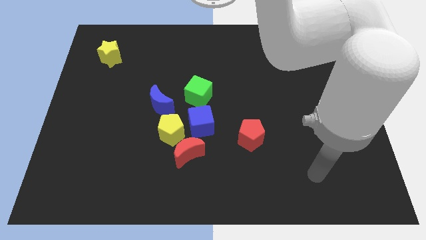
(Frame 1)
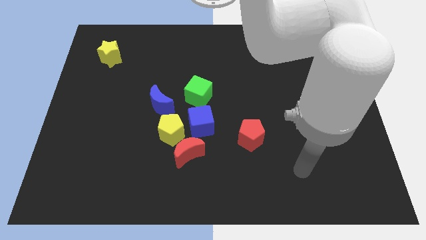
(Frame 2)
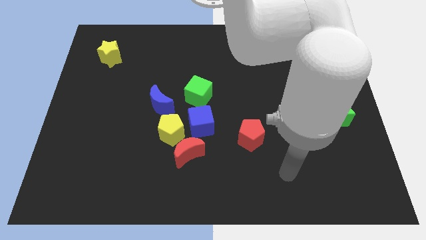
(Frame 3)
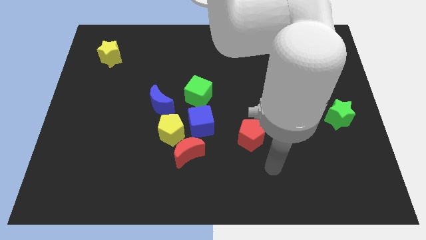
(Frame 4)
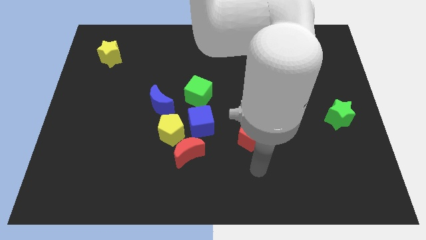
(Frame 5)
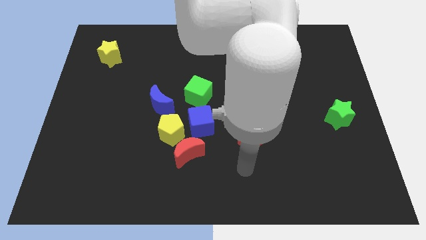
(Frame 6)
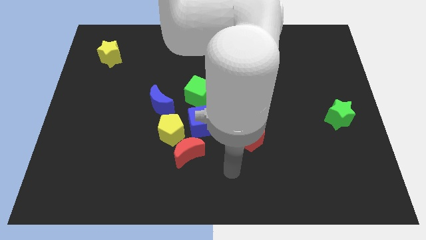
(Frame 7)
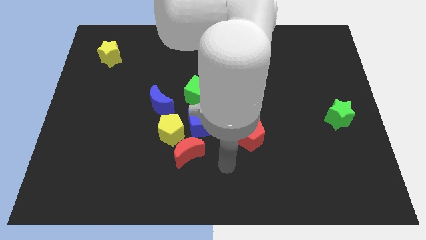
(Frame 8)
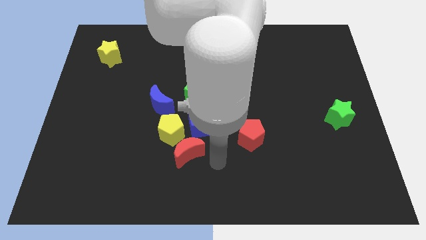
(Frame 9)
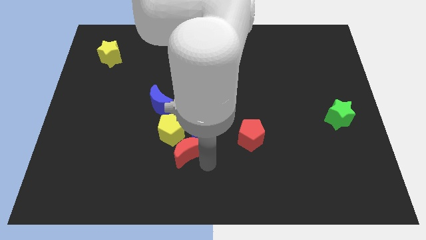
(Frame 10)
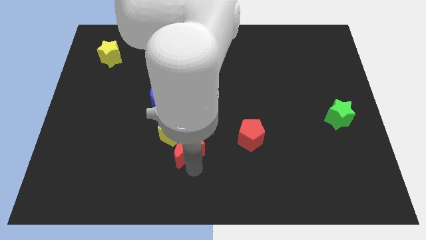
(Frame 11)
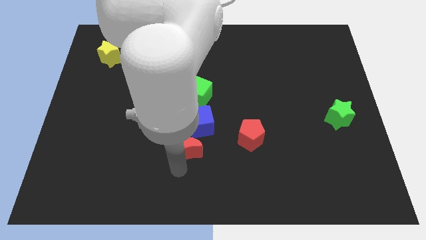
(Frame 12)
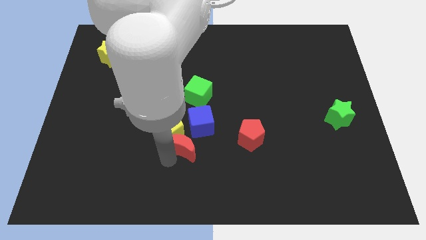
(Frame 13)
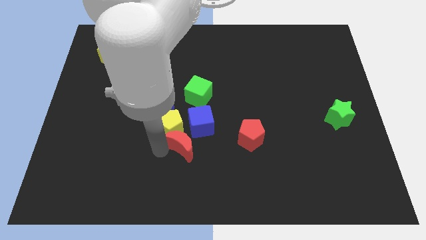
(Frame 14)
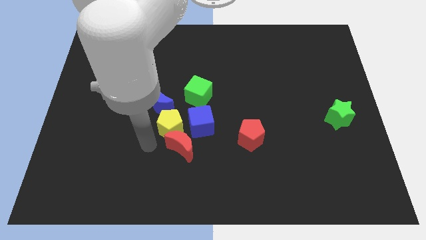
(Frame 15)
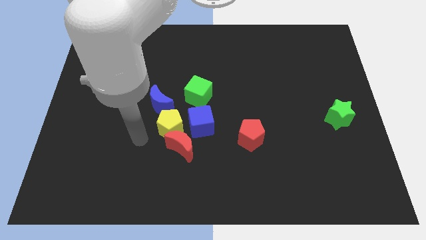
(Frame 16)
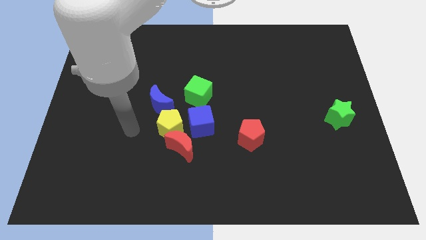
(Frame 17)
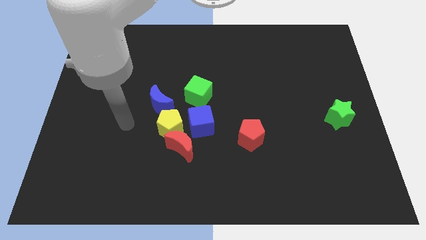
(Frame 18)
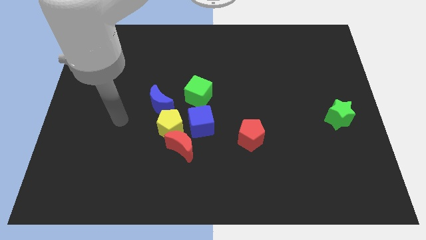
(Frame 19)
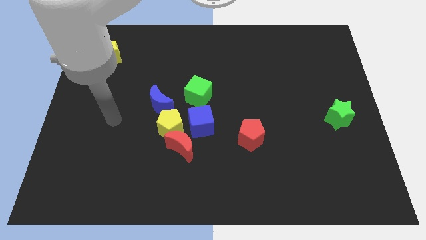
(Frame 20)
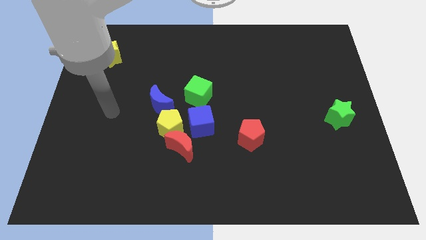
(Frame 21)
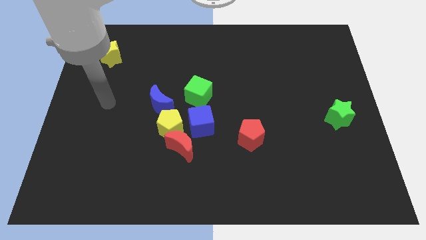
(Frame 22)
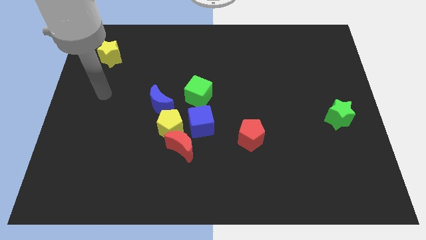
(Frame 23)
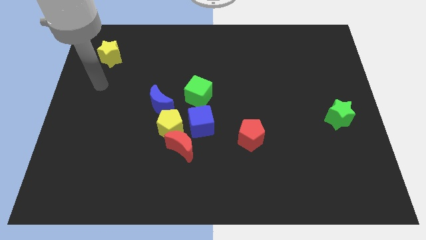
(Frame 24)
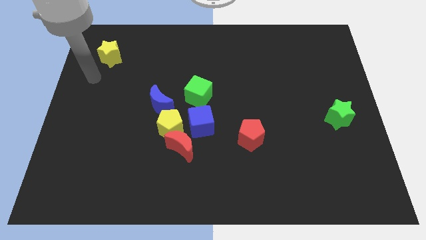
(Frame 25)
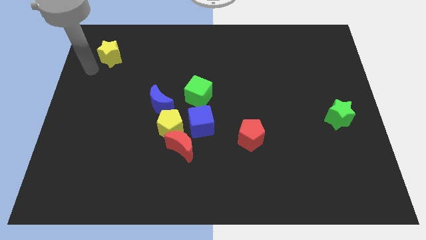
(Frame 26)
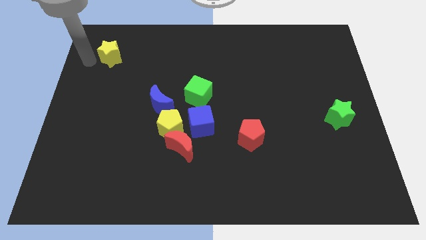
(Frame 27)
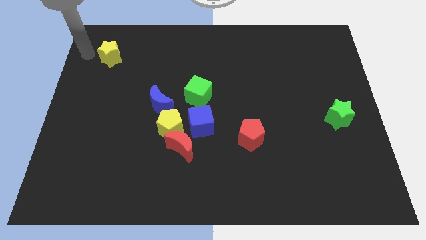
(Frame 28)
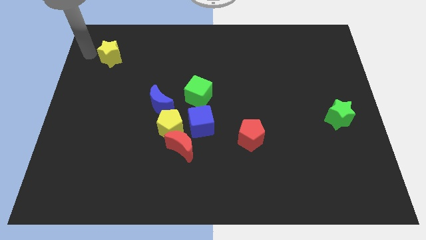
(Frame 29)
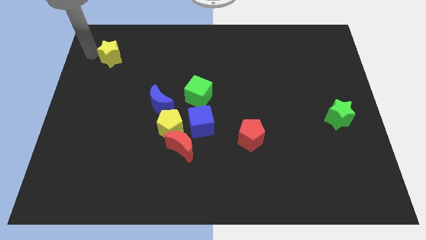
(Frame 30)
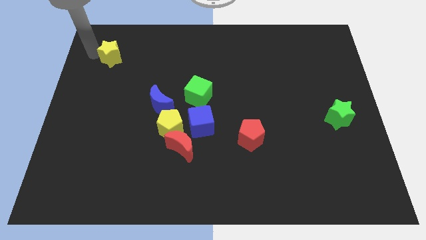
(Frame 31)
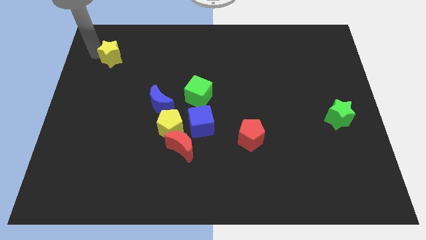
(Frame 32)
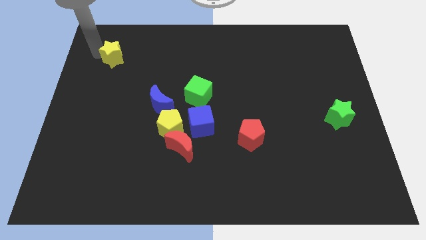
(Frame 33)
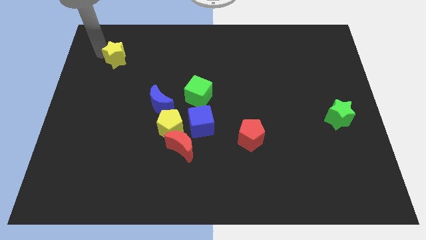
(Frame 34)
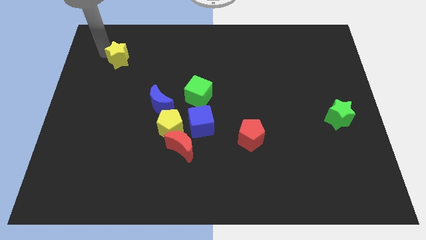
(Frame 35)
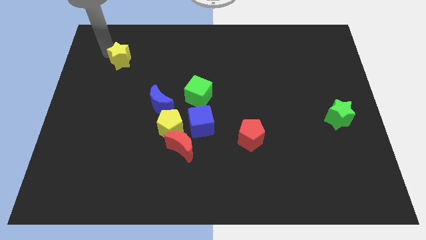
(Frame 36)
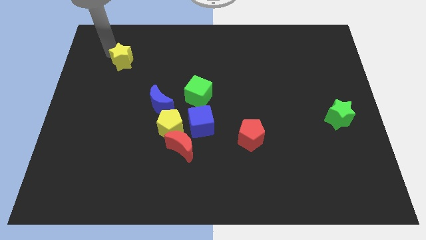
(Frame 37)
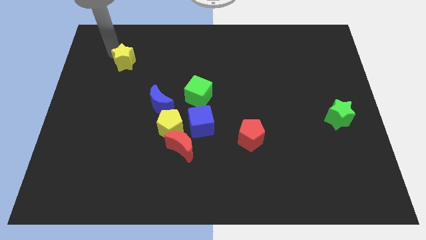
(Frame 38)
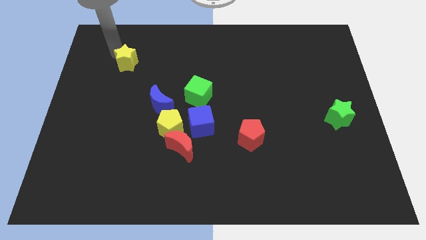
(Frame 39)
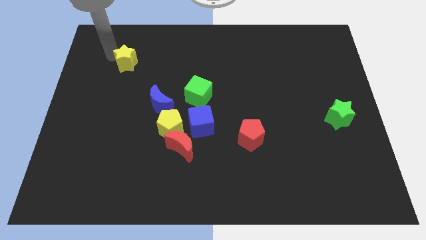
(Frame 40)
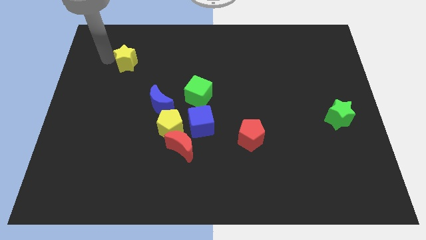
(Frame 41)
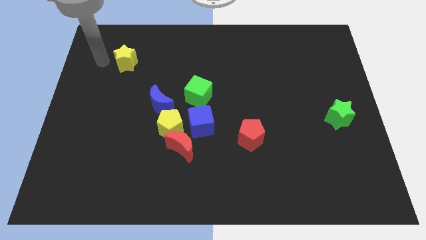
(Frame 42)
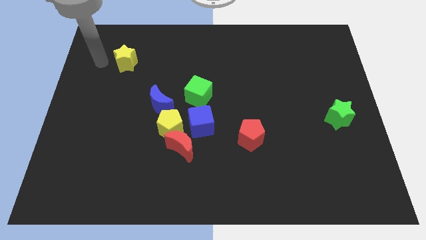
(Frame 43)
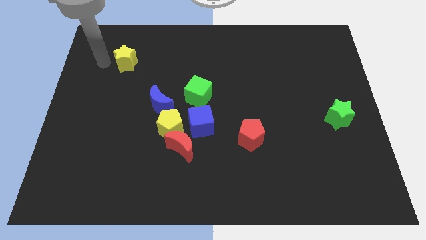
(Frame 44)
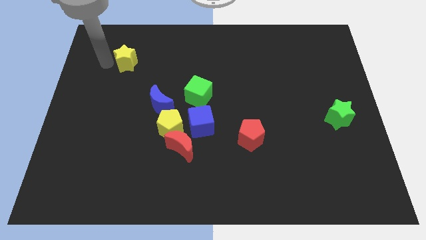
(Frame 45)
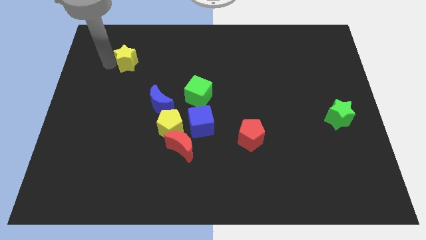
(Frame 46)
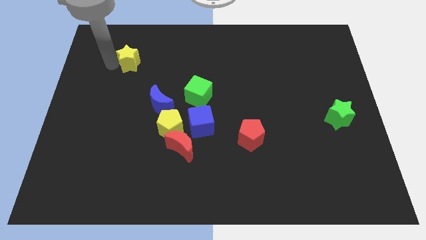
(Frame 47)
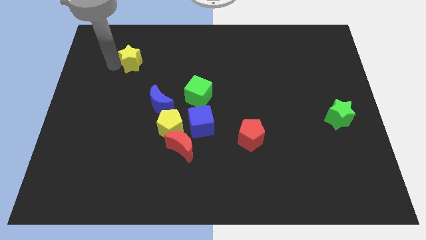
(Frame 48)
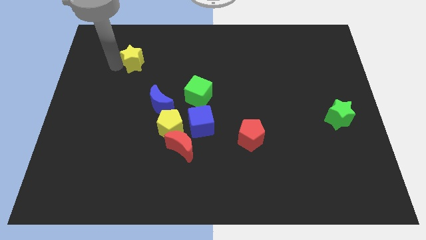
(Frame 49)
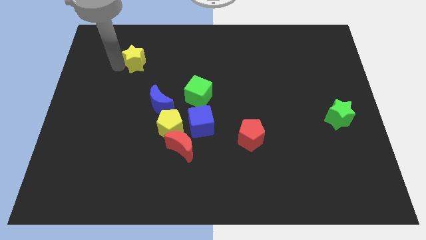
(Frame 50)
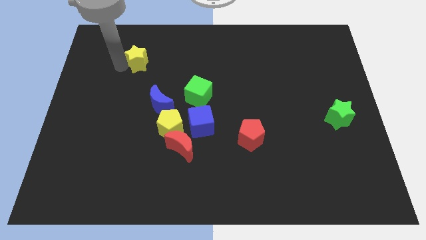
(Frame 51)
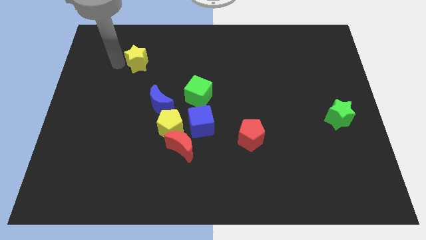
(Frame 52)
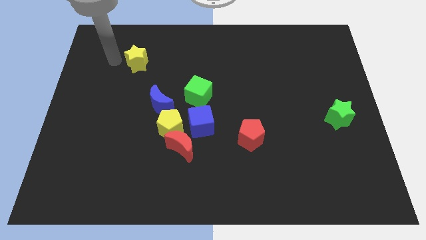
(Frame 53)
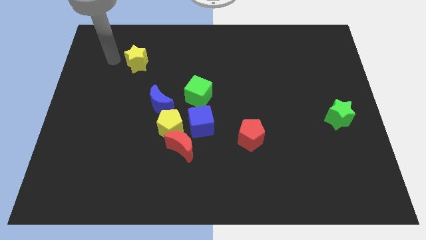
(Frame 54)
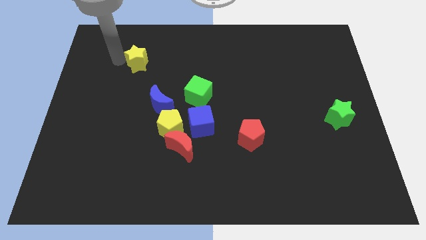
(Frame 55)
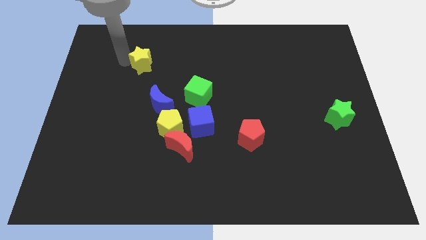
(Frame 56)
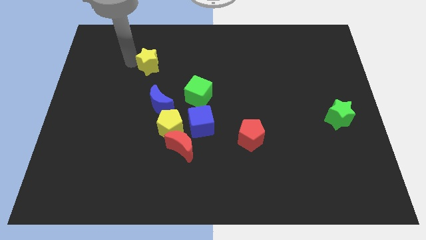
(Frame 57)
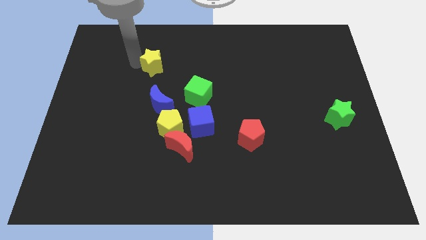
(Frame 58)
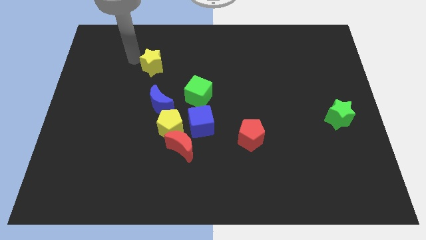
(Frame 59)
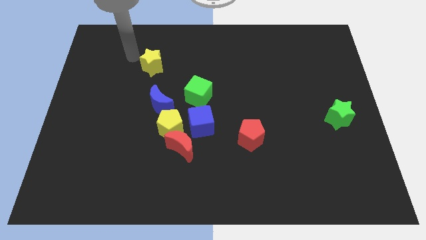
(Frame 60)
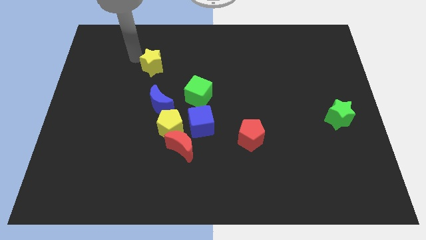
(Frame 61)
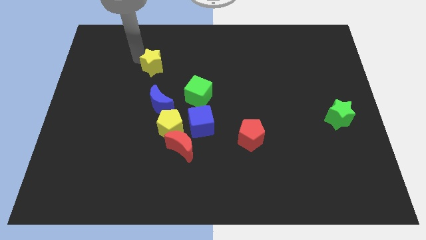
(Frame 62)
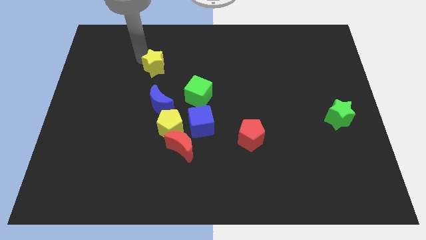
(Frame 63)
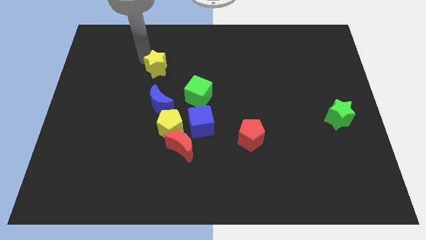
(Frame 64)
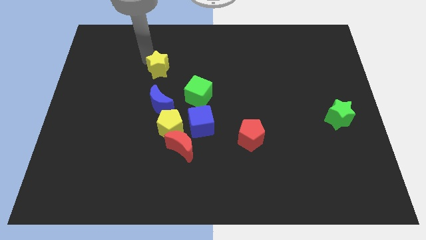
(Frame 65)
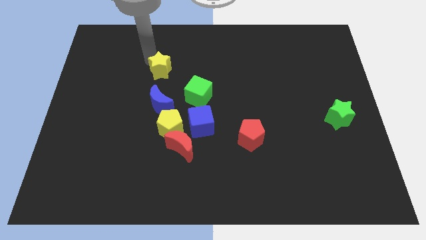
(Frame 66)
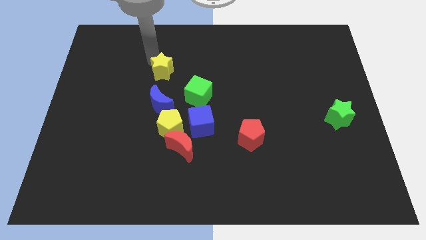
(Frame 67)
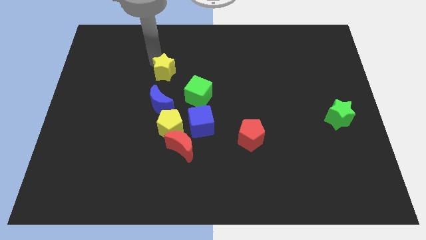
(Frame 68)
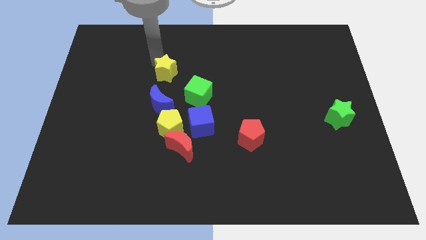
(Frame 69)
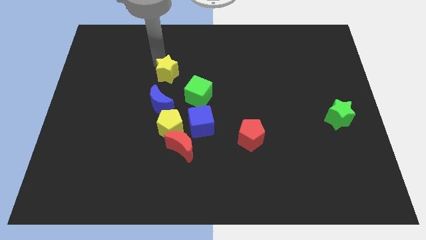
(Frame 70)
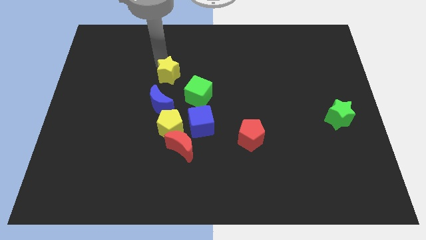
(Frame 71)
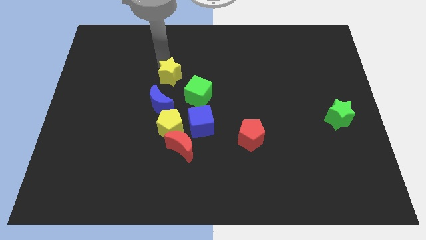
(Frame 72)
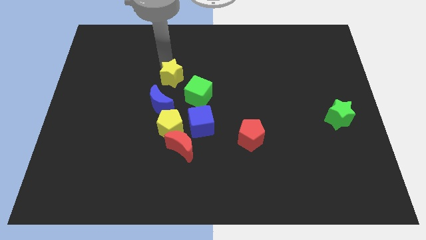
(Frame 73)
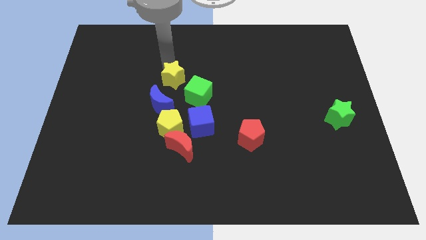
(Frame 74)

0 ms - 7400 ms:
put the yellow star to the top right side of the blue moon
